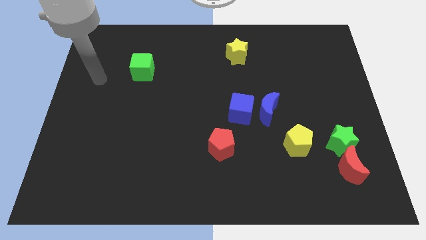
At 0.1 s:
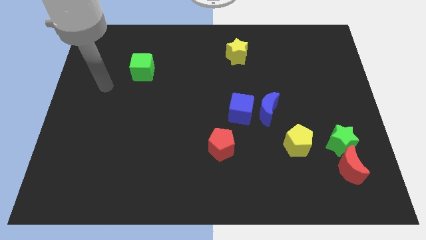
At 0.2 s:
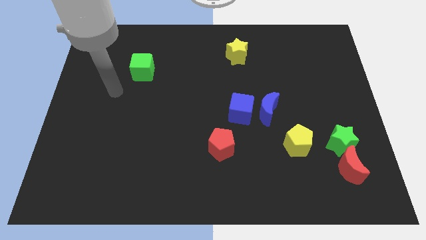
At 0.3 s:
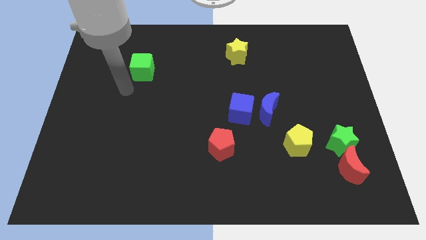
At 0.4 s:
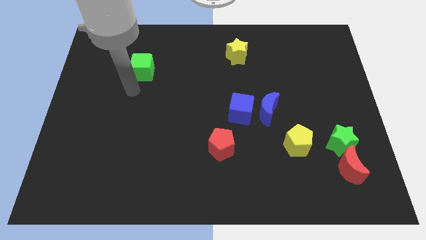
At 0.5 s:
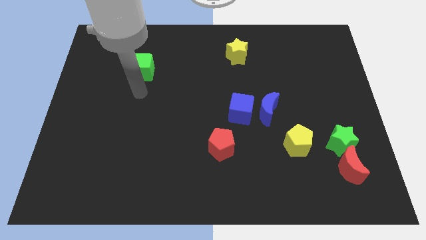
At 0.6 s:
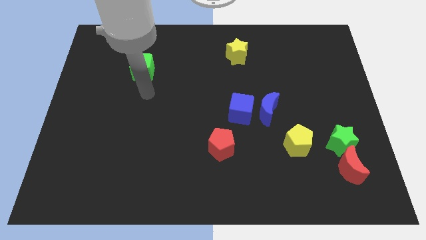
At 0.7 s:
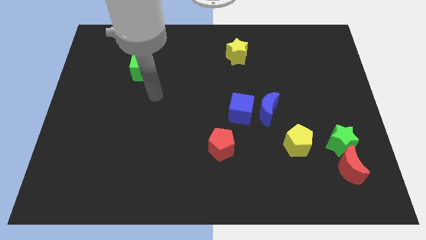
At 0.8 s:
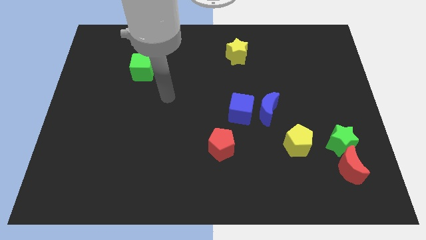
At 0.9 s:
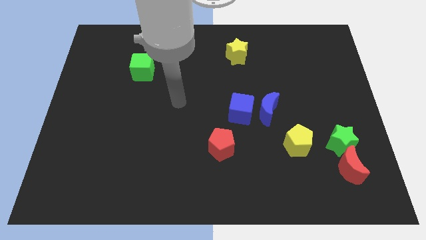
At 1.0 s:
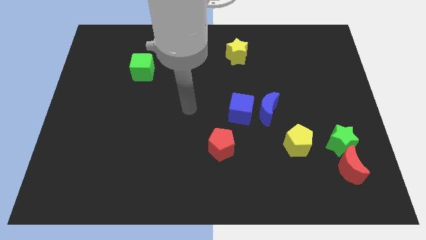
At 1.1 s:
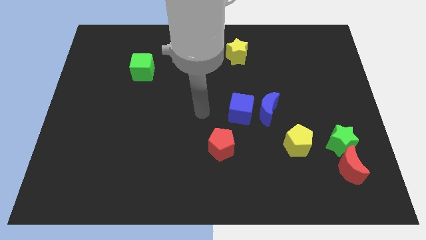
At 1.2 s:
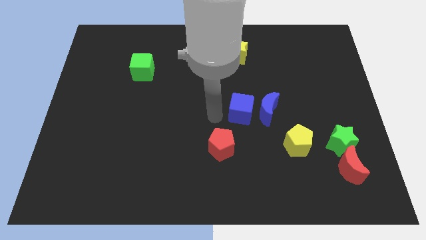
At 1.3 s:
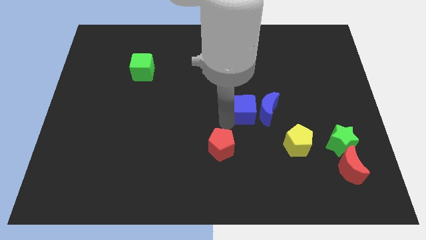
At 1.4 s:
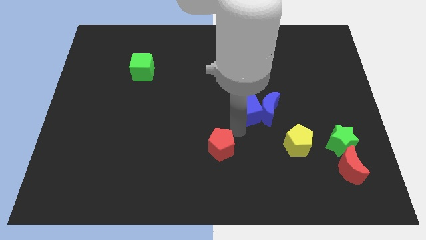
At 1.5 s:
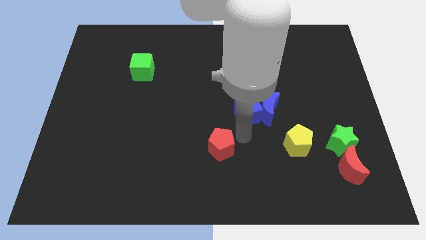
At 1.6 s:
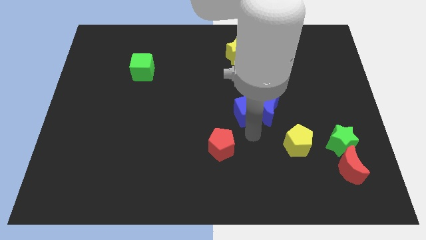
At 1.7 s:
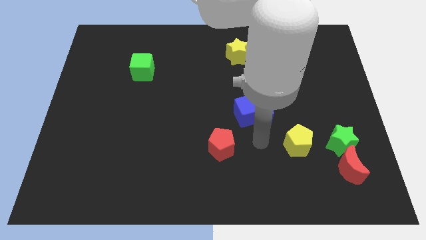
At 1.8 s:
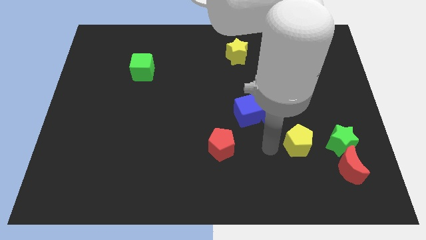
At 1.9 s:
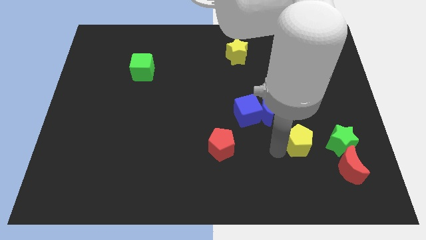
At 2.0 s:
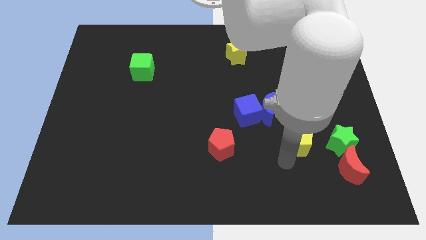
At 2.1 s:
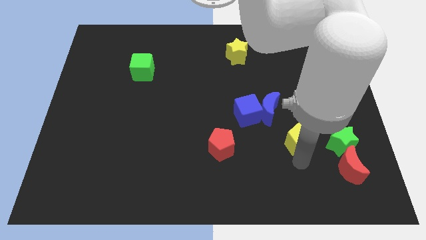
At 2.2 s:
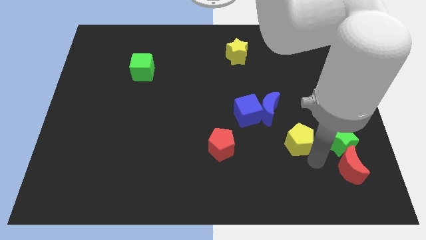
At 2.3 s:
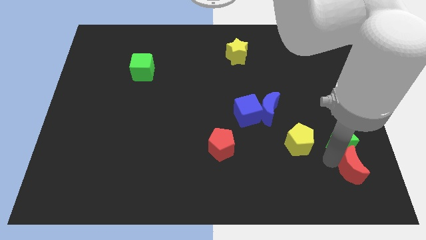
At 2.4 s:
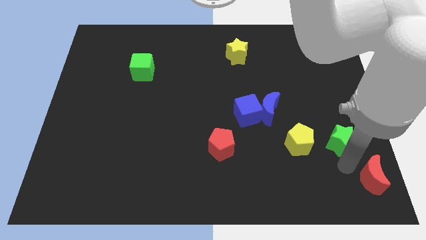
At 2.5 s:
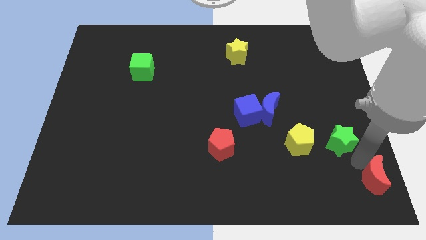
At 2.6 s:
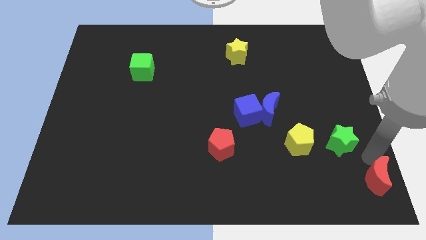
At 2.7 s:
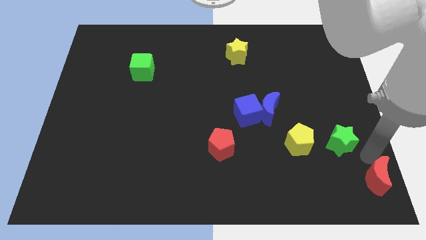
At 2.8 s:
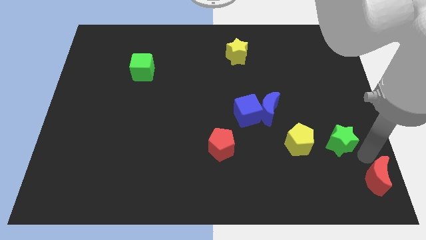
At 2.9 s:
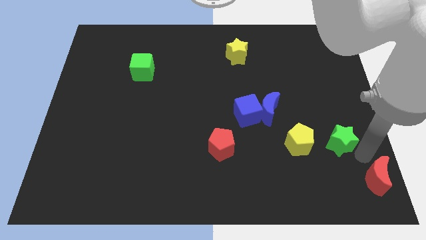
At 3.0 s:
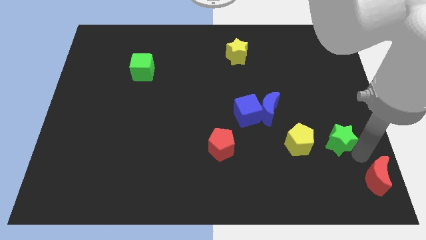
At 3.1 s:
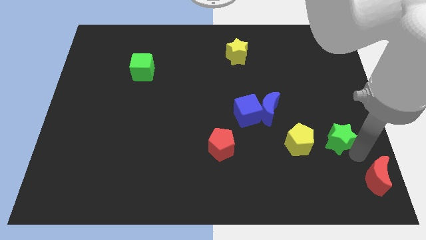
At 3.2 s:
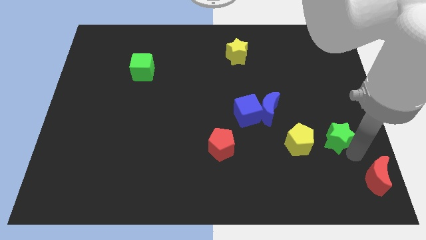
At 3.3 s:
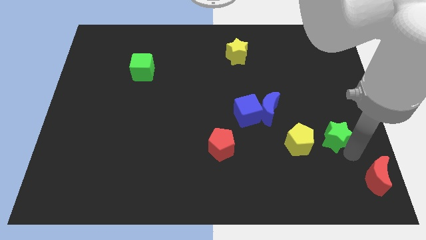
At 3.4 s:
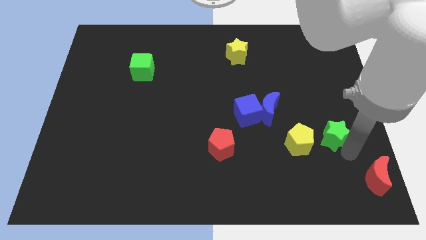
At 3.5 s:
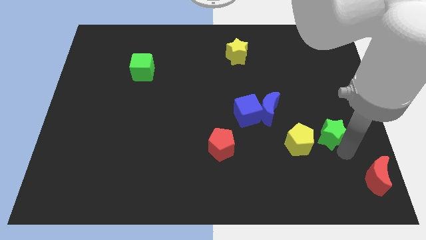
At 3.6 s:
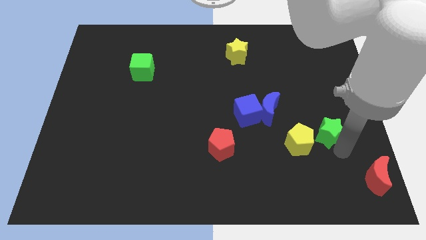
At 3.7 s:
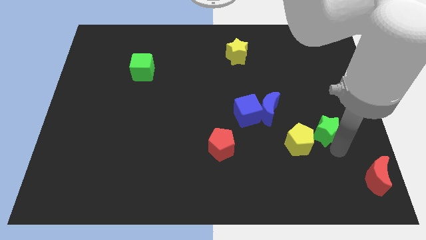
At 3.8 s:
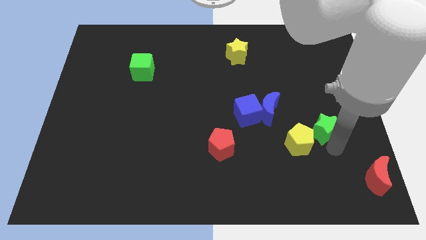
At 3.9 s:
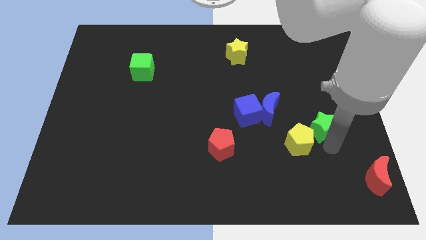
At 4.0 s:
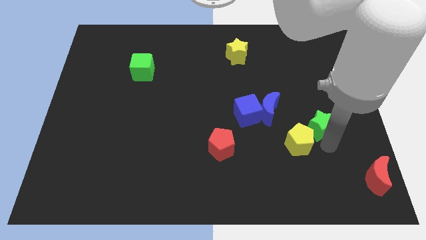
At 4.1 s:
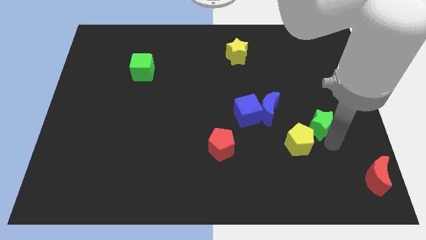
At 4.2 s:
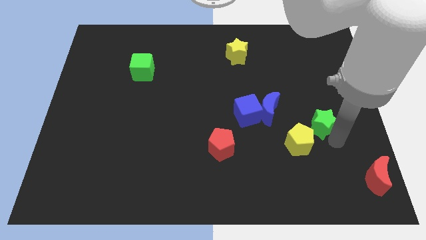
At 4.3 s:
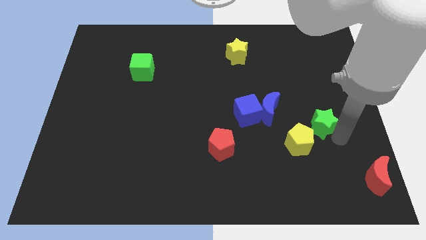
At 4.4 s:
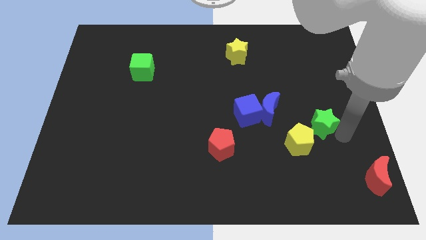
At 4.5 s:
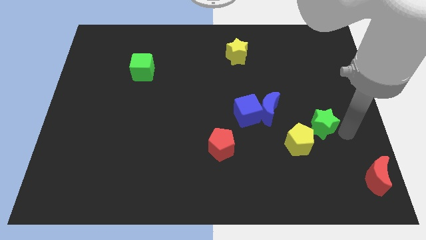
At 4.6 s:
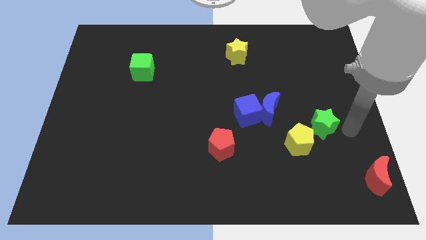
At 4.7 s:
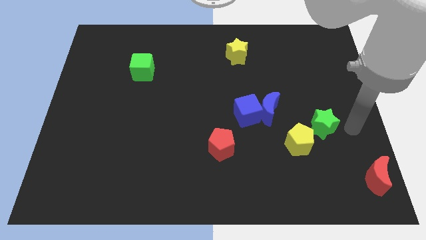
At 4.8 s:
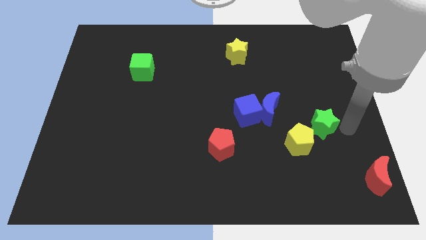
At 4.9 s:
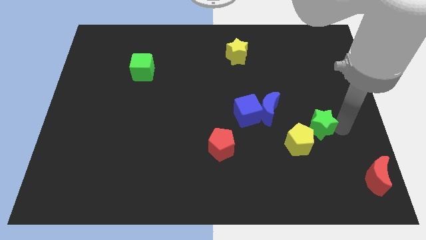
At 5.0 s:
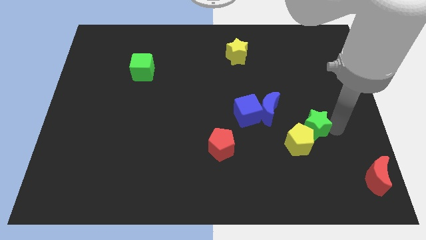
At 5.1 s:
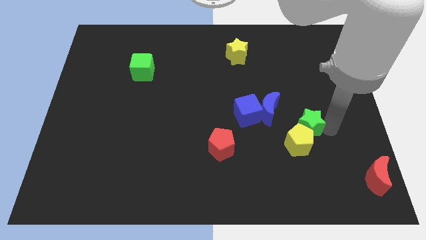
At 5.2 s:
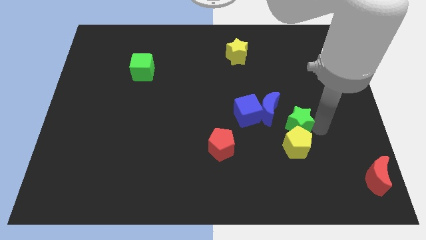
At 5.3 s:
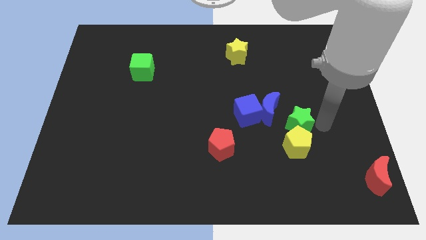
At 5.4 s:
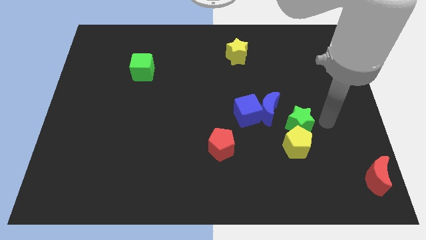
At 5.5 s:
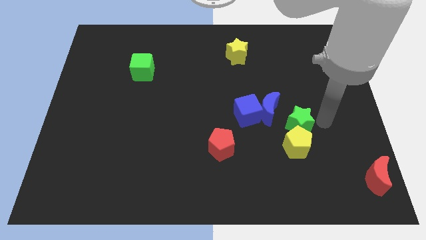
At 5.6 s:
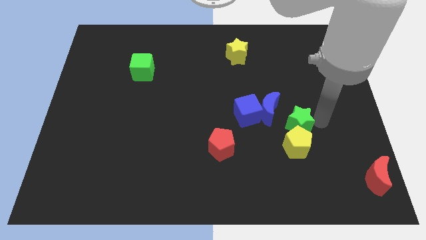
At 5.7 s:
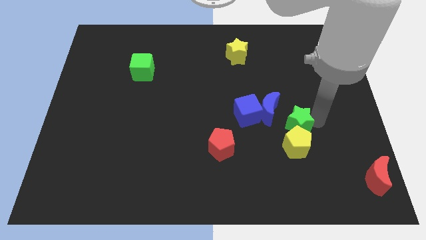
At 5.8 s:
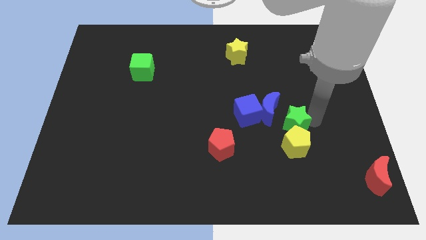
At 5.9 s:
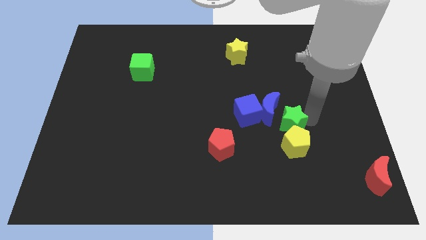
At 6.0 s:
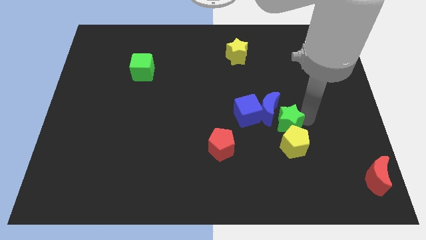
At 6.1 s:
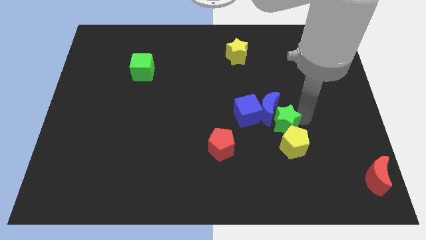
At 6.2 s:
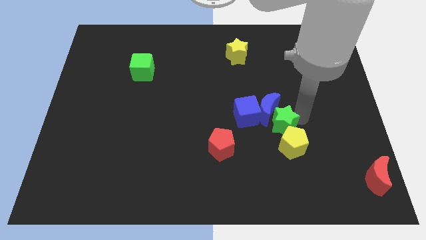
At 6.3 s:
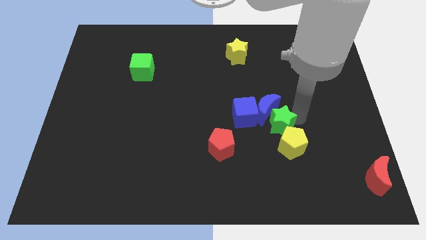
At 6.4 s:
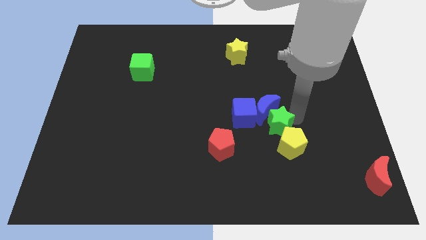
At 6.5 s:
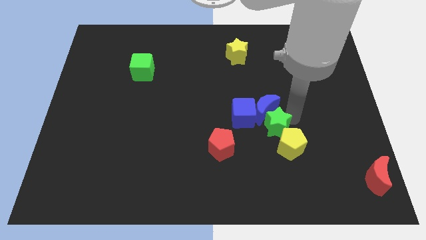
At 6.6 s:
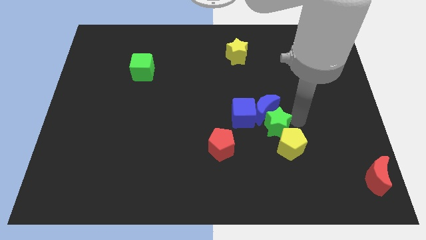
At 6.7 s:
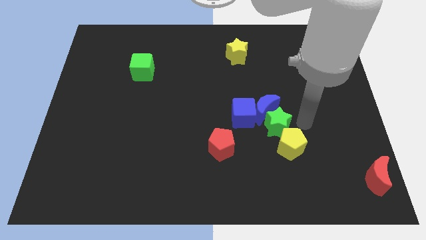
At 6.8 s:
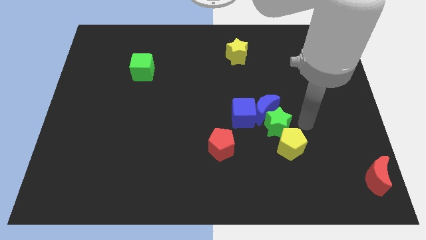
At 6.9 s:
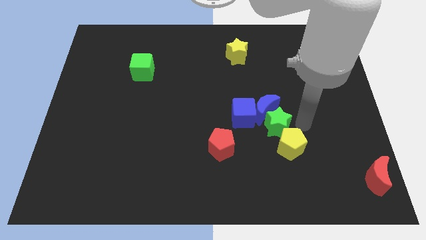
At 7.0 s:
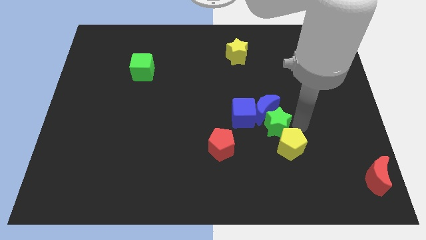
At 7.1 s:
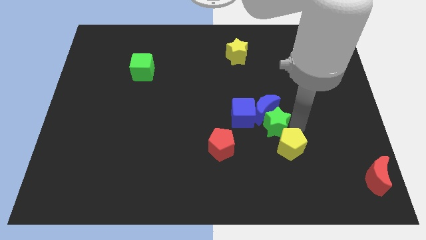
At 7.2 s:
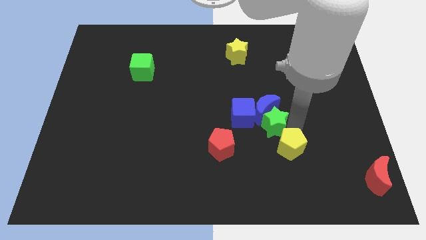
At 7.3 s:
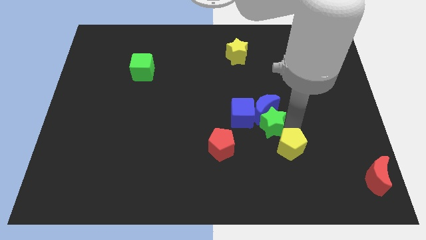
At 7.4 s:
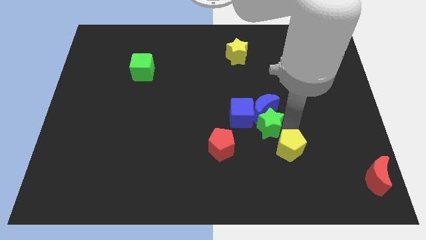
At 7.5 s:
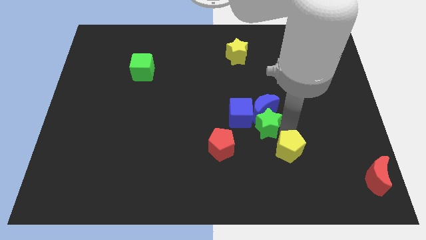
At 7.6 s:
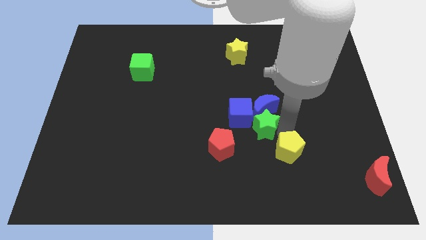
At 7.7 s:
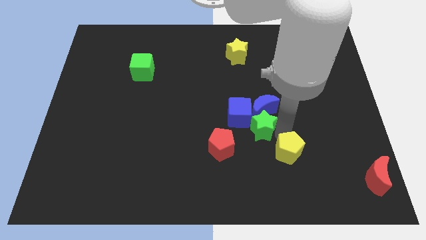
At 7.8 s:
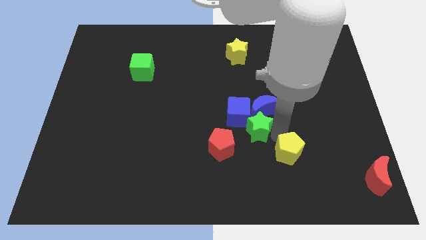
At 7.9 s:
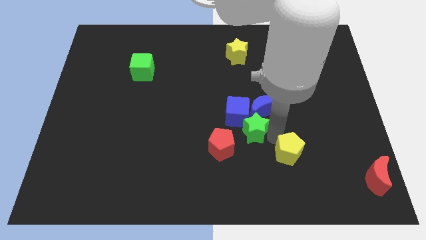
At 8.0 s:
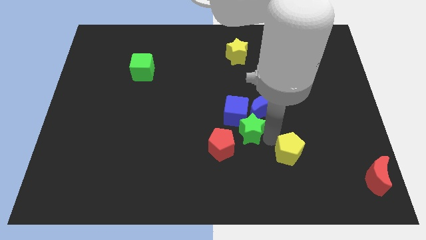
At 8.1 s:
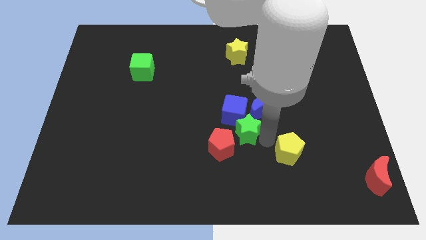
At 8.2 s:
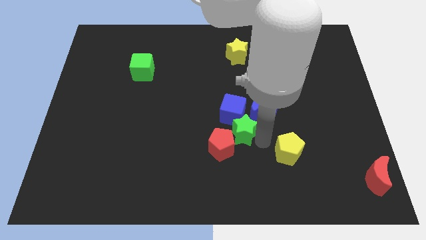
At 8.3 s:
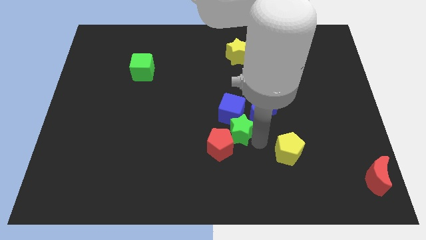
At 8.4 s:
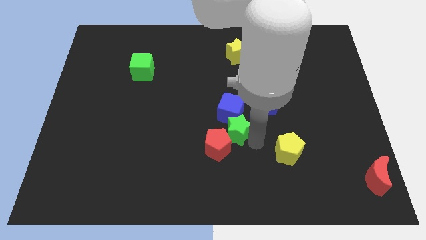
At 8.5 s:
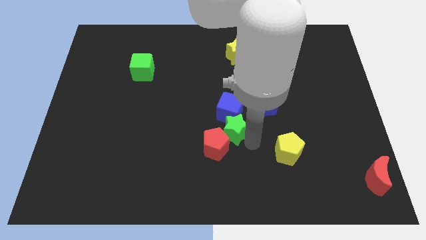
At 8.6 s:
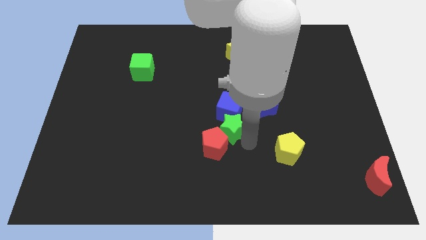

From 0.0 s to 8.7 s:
move the green star diagonally down and to the left of the blue cube
